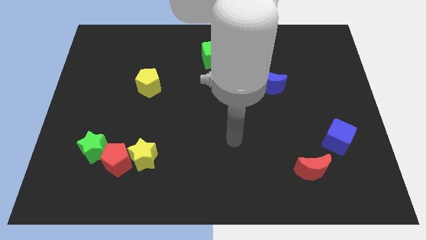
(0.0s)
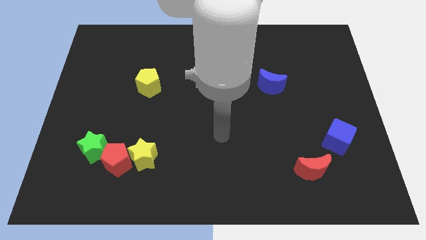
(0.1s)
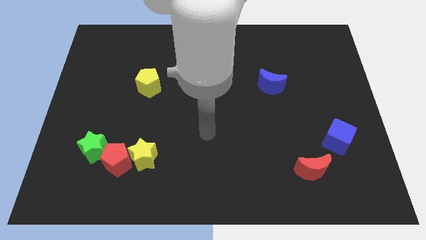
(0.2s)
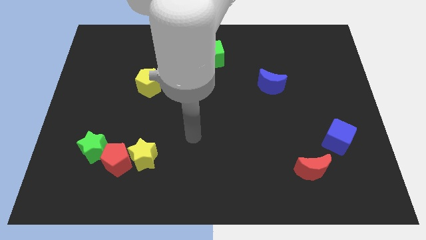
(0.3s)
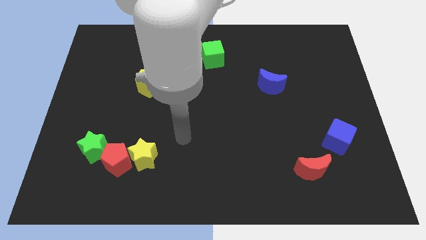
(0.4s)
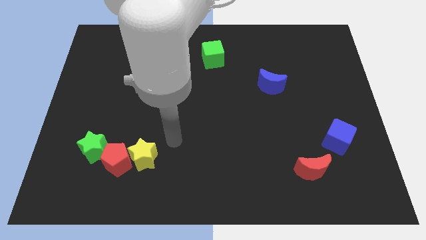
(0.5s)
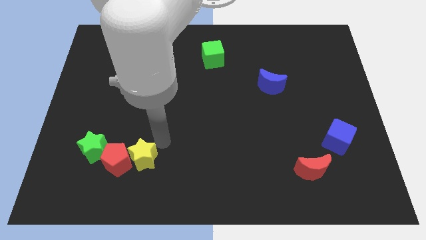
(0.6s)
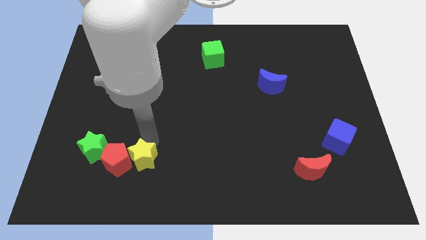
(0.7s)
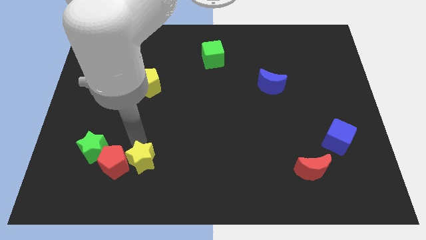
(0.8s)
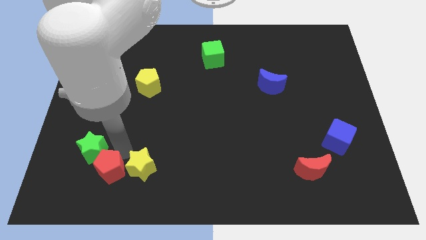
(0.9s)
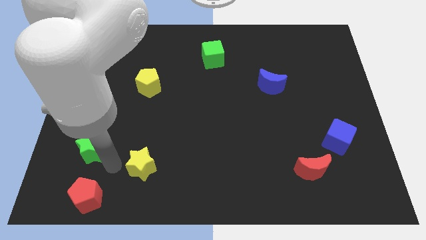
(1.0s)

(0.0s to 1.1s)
move the yellow star away from the red pentagon

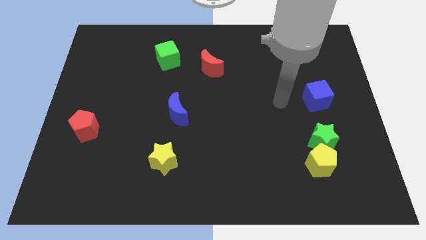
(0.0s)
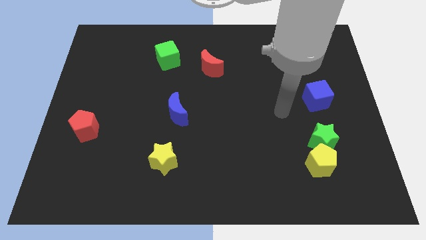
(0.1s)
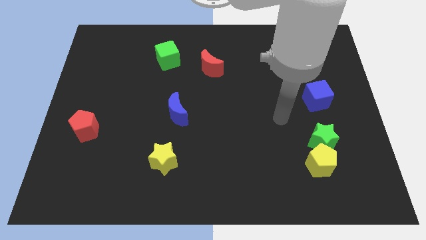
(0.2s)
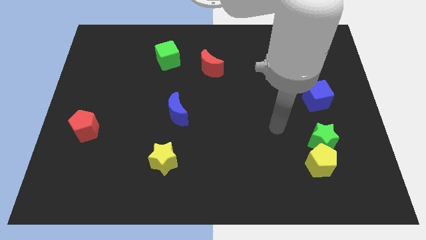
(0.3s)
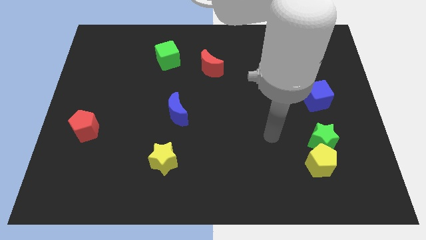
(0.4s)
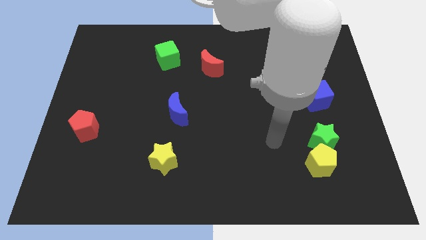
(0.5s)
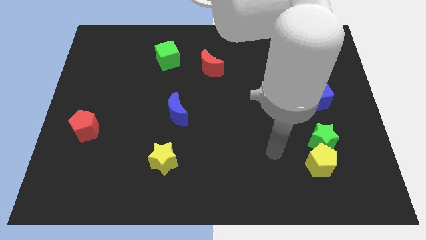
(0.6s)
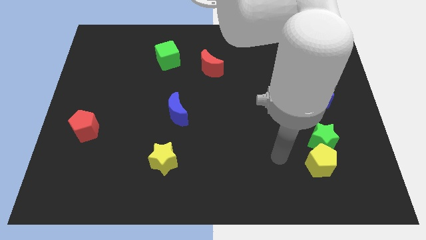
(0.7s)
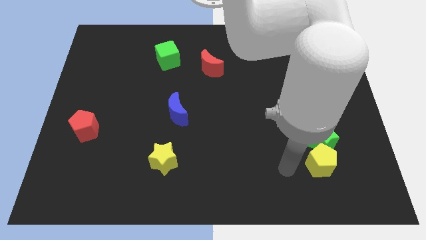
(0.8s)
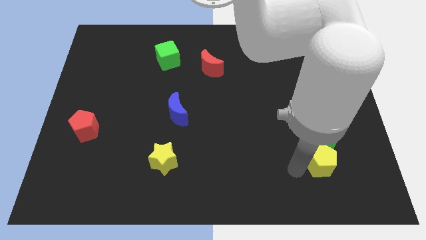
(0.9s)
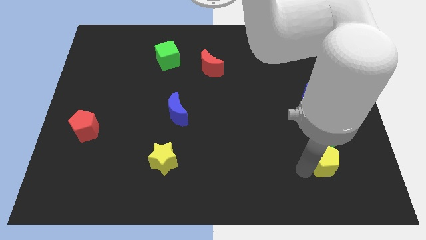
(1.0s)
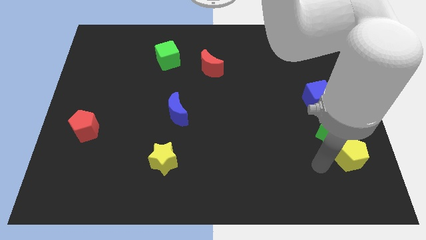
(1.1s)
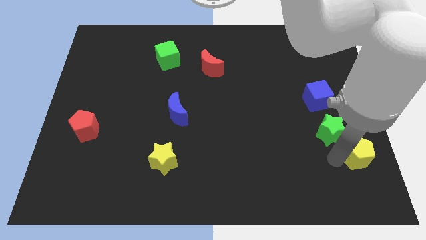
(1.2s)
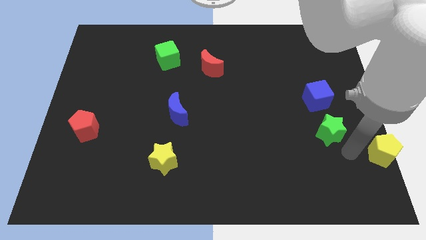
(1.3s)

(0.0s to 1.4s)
pull the green star apart from the yellow pentagon

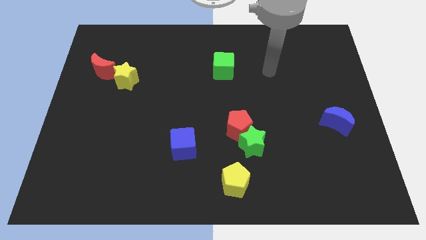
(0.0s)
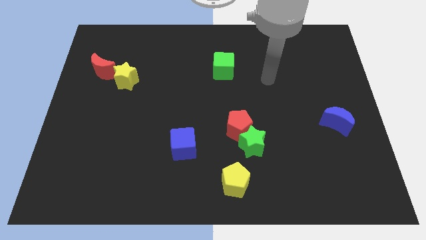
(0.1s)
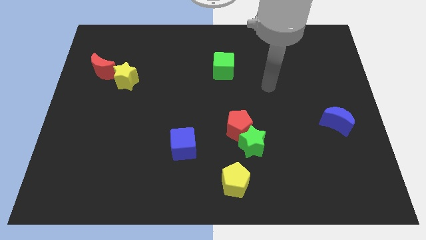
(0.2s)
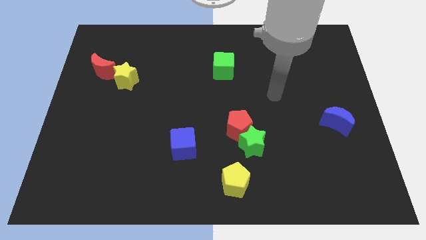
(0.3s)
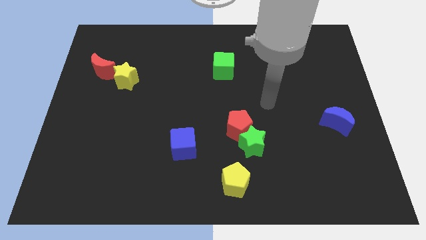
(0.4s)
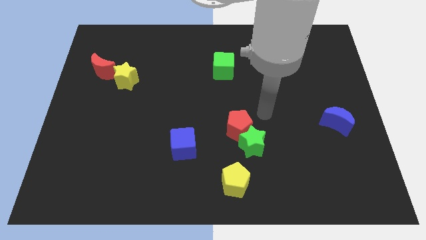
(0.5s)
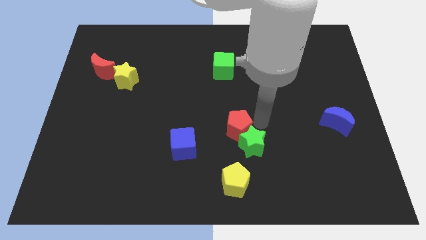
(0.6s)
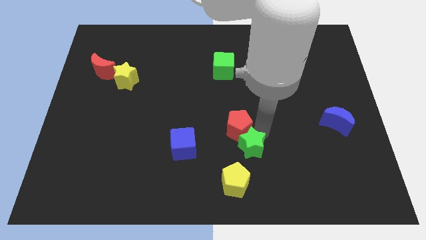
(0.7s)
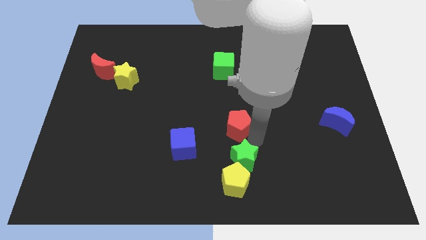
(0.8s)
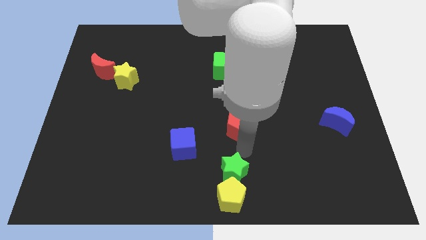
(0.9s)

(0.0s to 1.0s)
separate the red pentagon from the green star

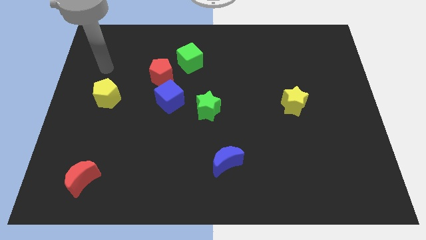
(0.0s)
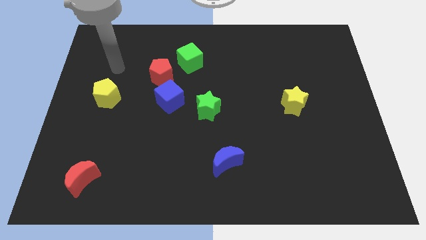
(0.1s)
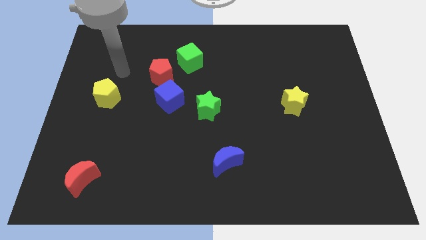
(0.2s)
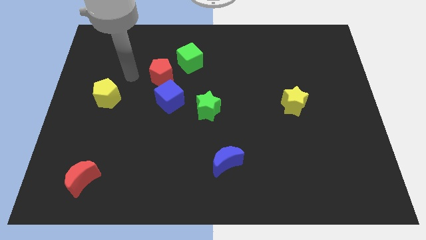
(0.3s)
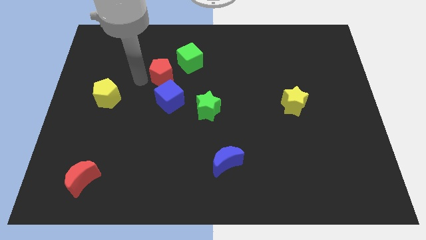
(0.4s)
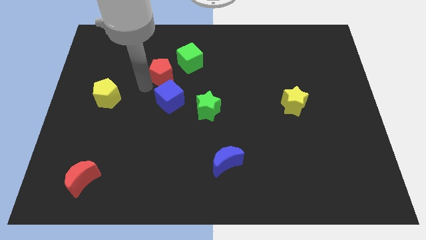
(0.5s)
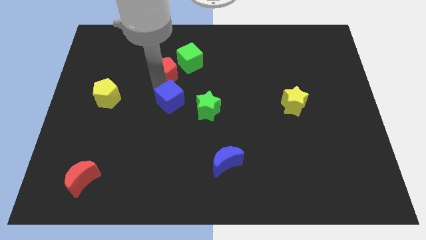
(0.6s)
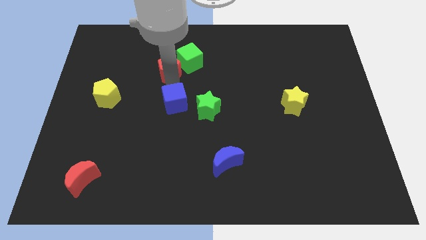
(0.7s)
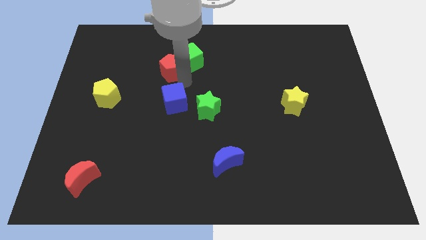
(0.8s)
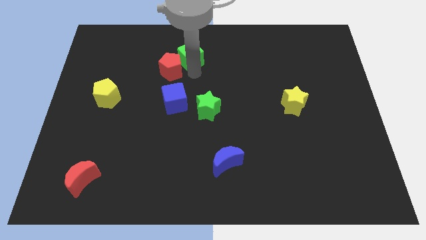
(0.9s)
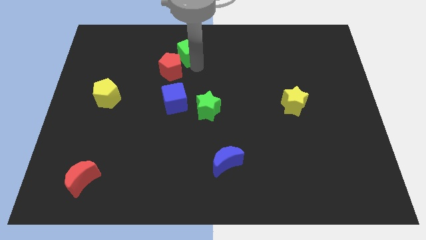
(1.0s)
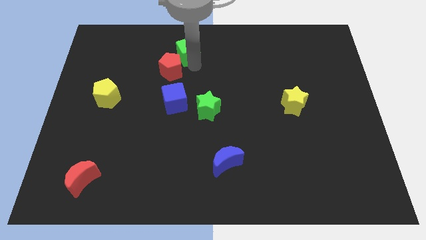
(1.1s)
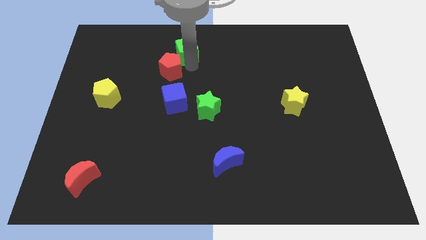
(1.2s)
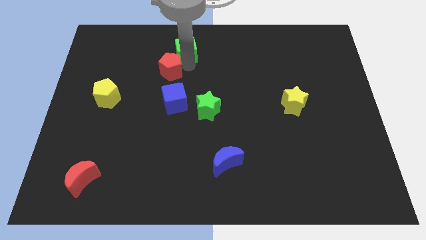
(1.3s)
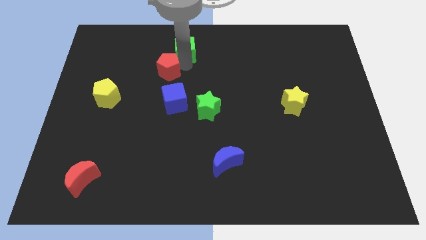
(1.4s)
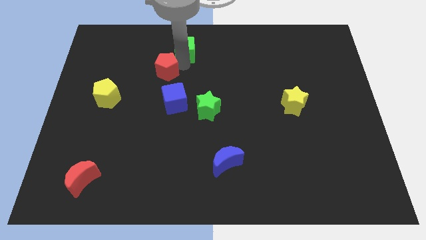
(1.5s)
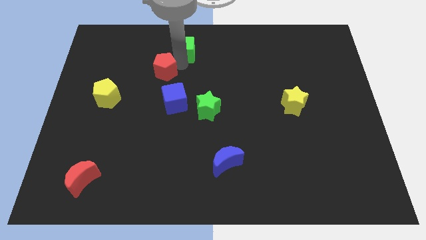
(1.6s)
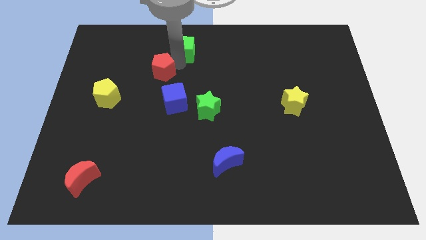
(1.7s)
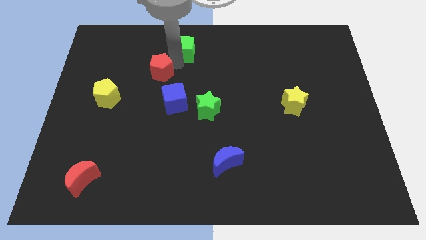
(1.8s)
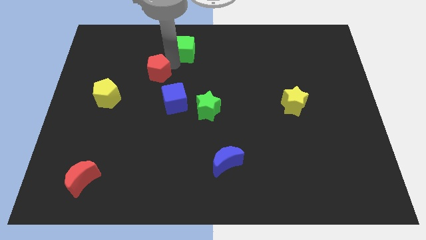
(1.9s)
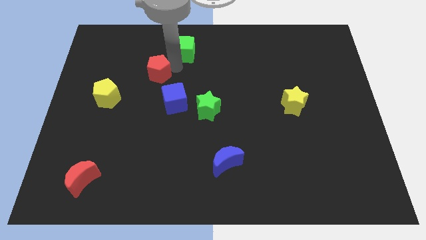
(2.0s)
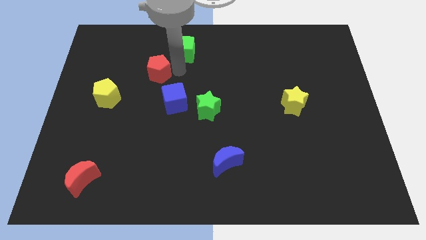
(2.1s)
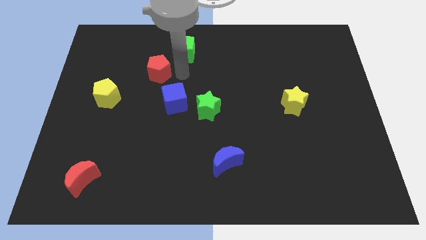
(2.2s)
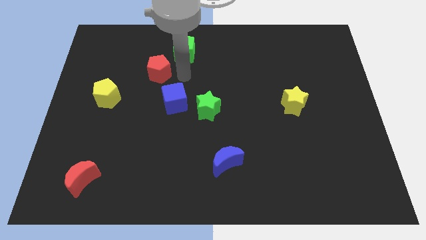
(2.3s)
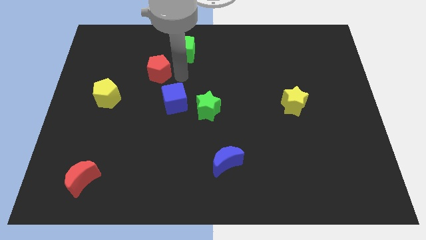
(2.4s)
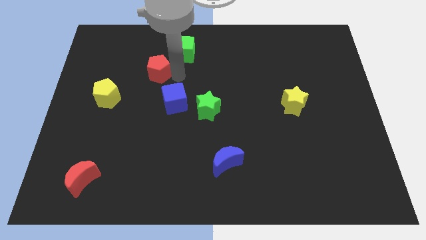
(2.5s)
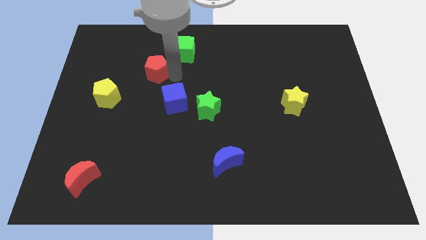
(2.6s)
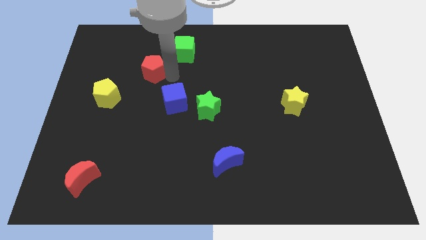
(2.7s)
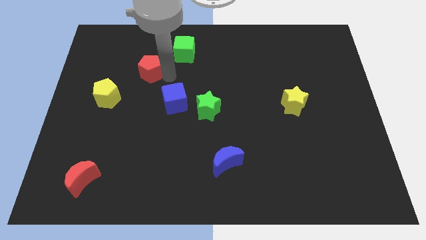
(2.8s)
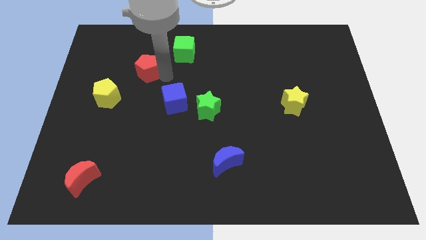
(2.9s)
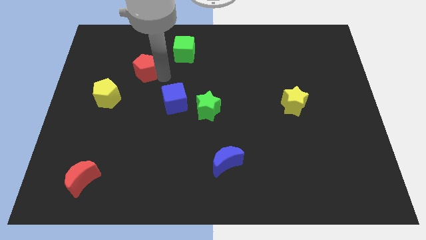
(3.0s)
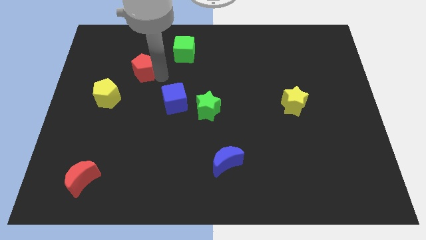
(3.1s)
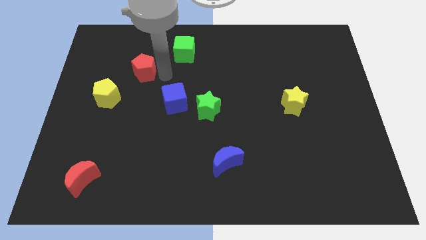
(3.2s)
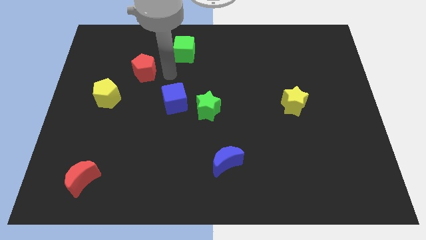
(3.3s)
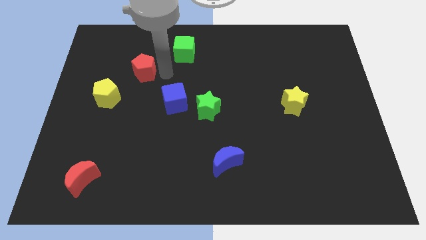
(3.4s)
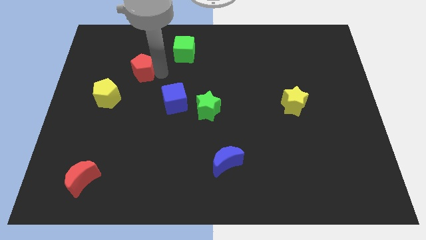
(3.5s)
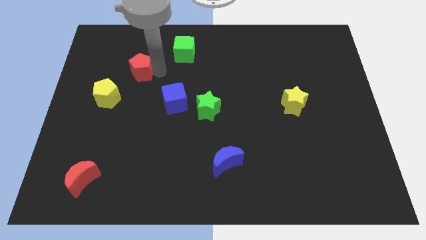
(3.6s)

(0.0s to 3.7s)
pull the red pentagon apart from the blue cube and green cube

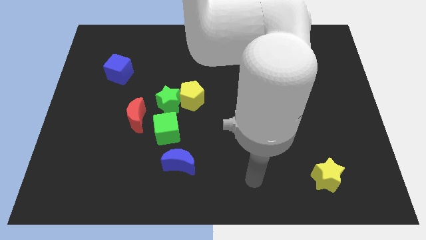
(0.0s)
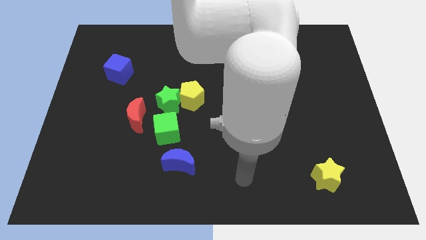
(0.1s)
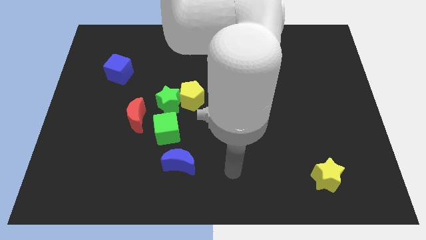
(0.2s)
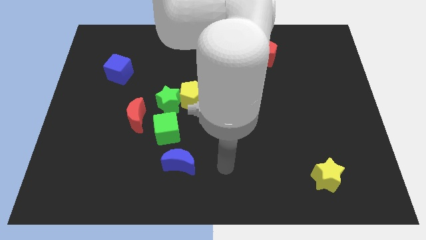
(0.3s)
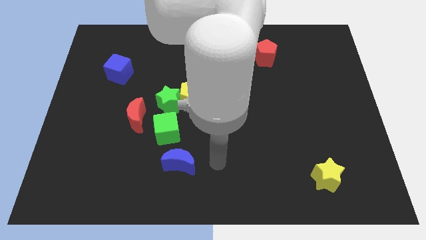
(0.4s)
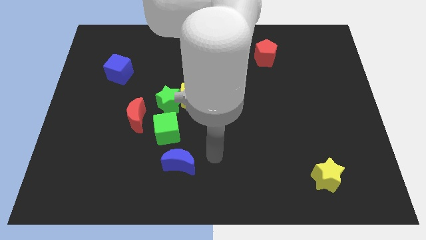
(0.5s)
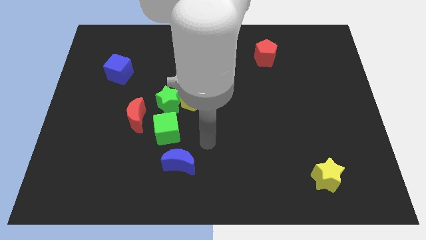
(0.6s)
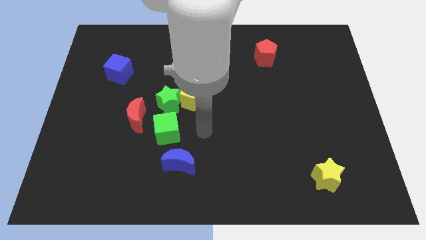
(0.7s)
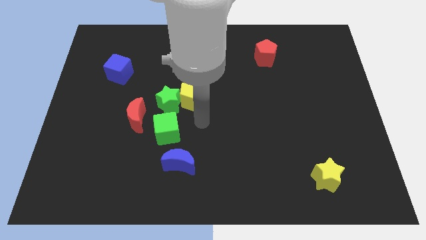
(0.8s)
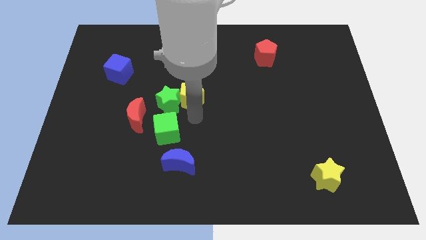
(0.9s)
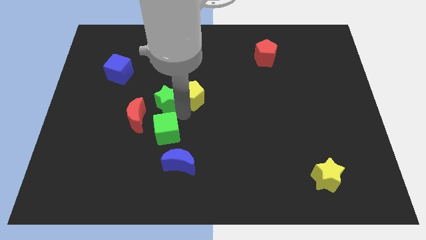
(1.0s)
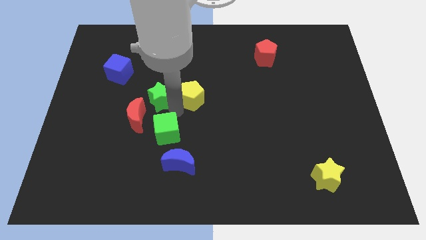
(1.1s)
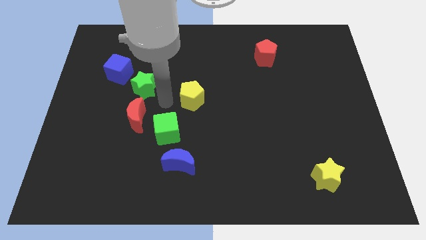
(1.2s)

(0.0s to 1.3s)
separate the yellow pentagon from the green star

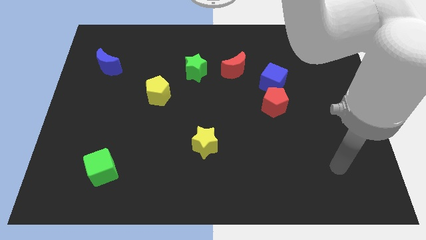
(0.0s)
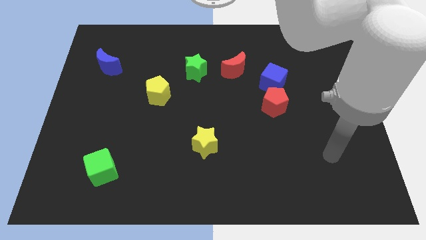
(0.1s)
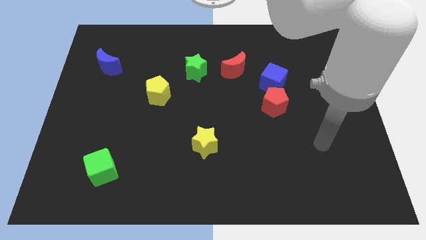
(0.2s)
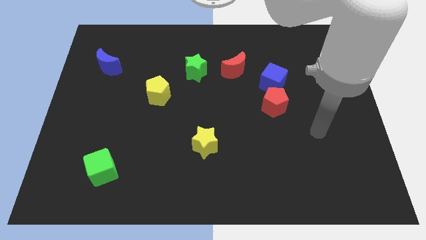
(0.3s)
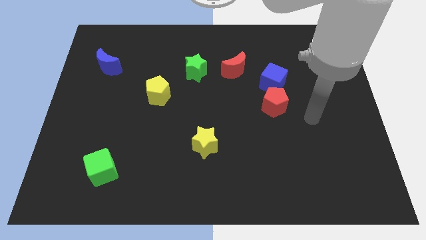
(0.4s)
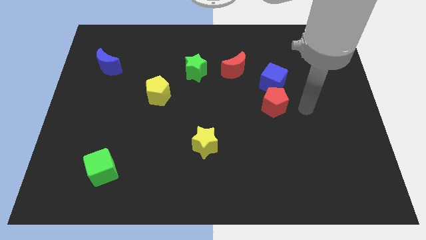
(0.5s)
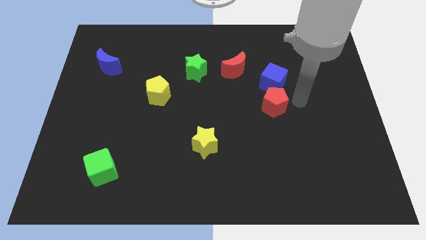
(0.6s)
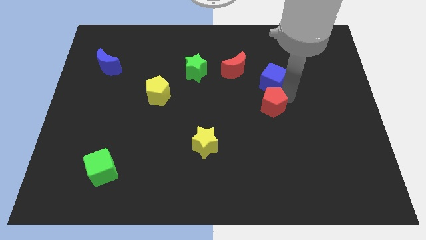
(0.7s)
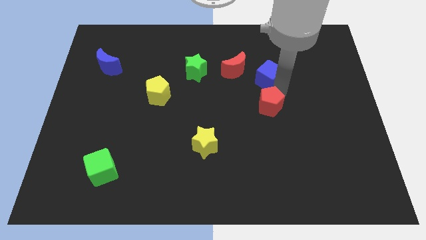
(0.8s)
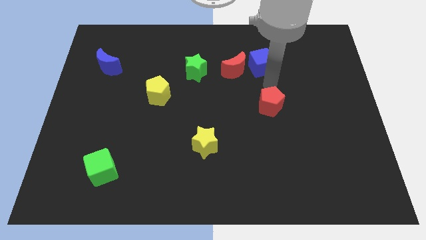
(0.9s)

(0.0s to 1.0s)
pull the red pentagon apart from the blue cube
